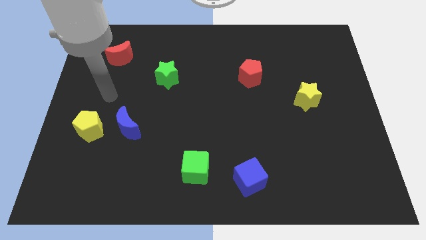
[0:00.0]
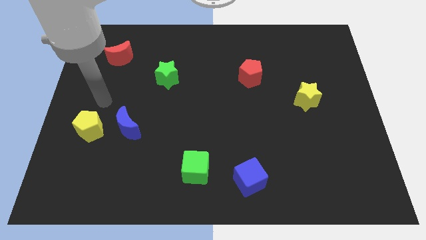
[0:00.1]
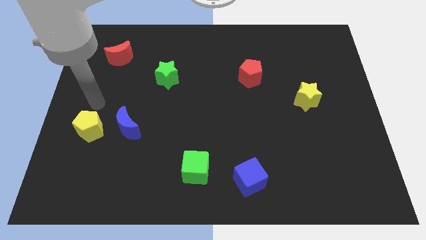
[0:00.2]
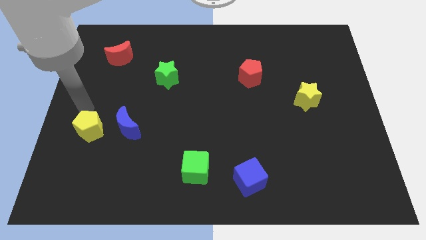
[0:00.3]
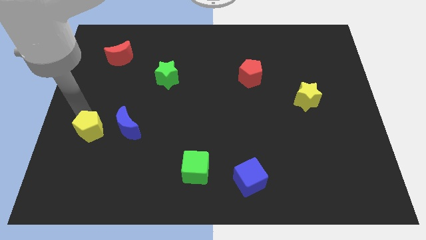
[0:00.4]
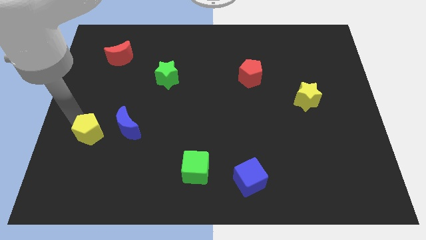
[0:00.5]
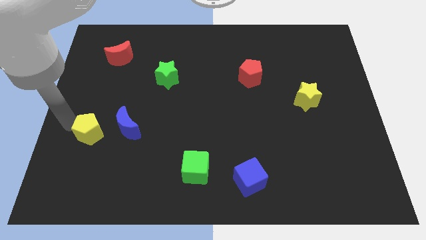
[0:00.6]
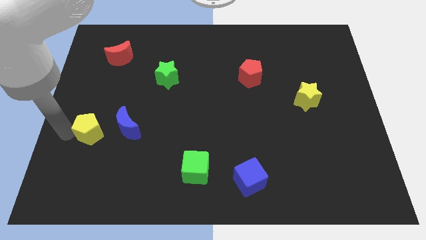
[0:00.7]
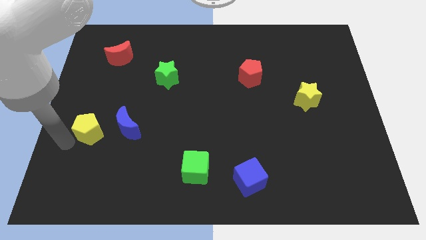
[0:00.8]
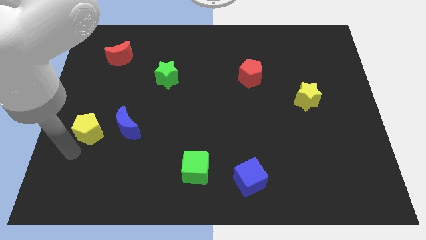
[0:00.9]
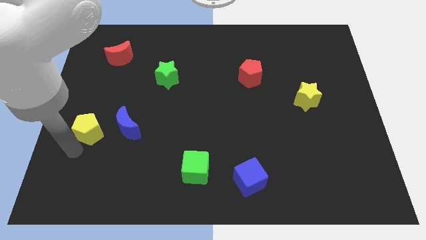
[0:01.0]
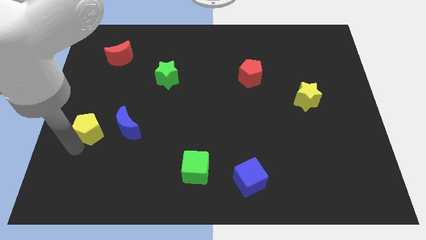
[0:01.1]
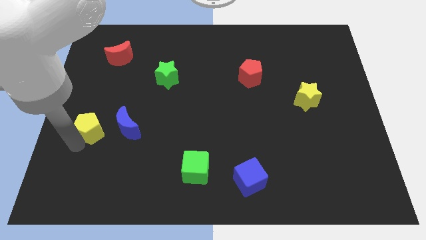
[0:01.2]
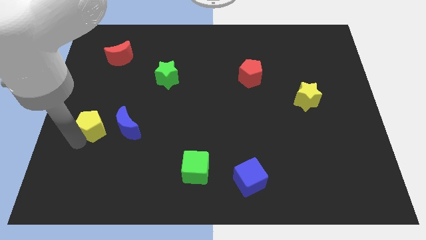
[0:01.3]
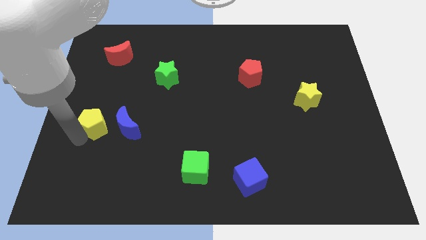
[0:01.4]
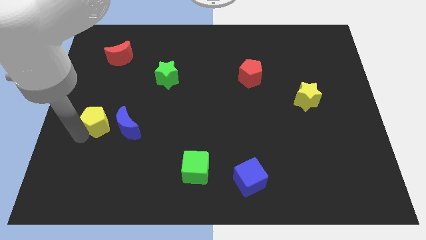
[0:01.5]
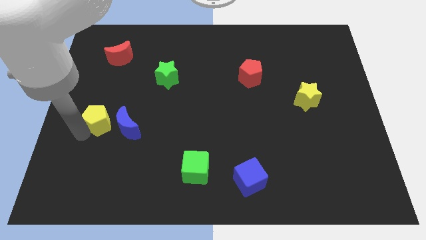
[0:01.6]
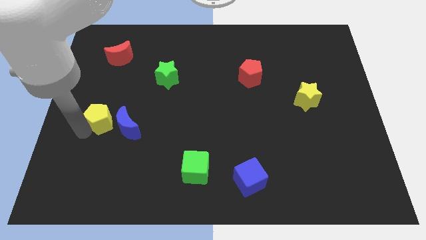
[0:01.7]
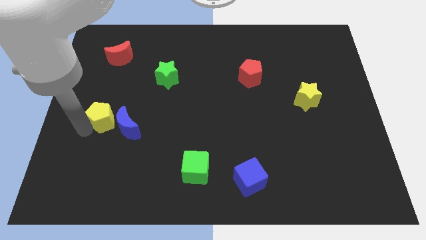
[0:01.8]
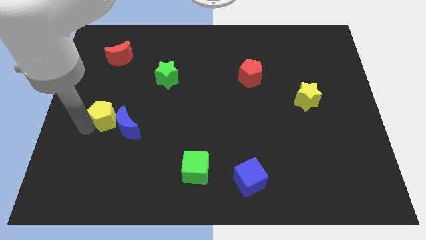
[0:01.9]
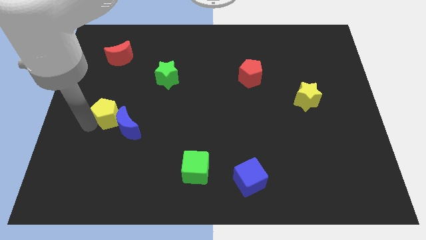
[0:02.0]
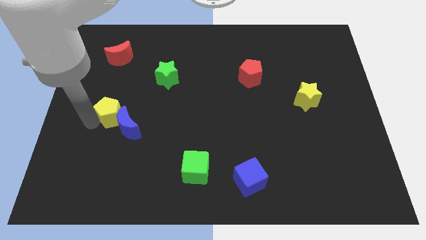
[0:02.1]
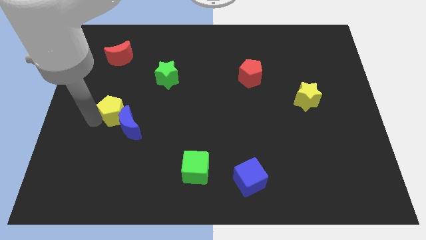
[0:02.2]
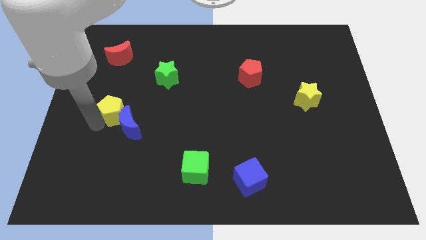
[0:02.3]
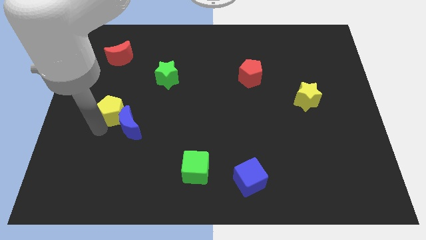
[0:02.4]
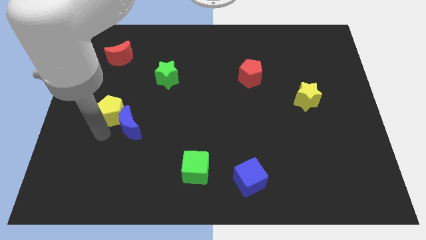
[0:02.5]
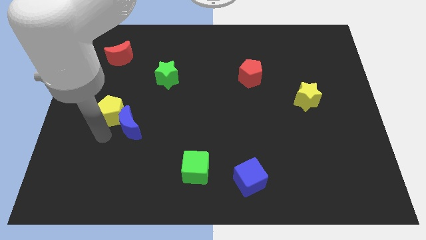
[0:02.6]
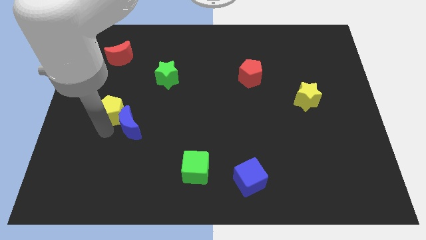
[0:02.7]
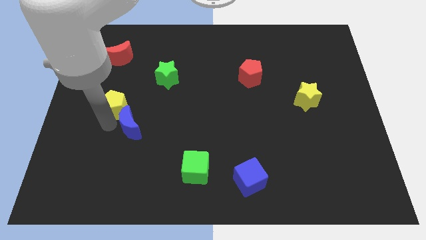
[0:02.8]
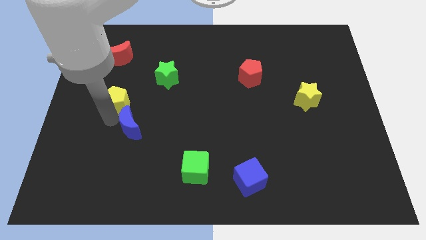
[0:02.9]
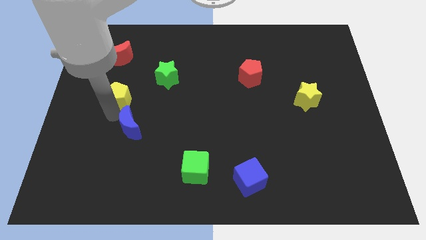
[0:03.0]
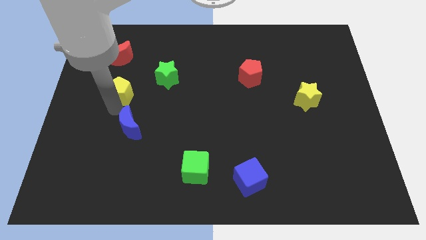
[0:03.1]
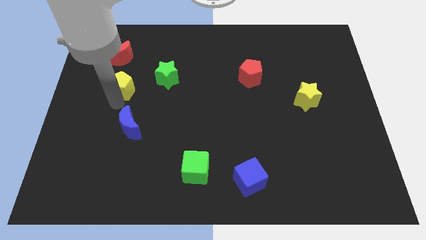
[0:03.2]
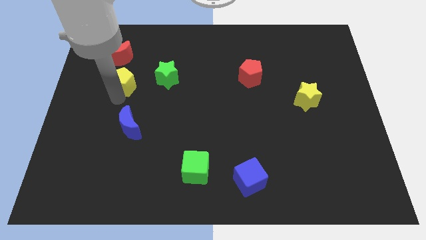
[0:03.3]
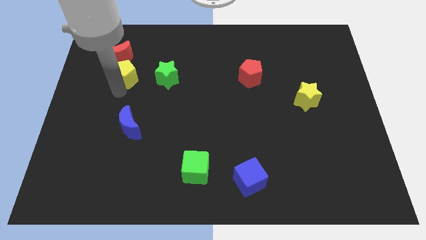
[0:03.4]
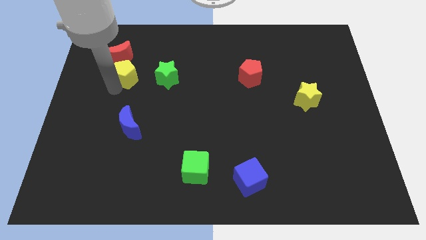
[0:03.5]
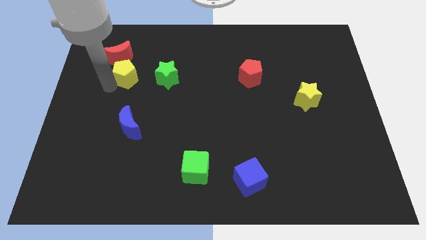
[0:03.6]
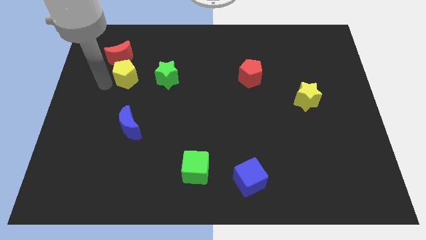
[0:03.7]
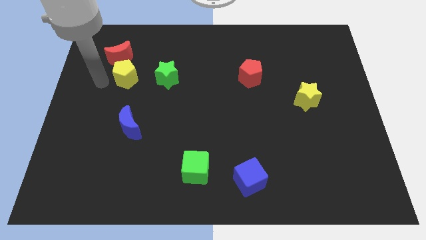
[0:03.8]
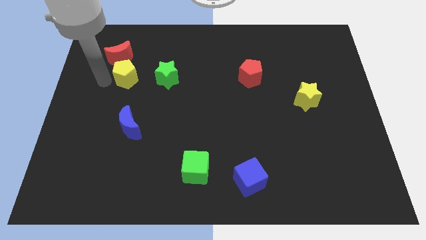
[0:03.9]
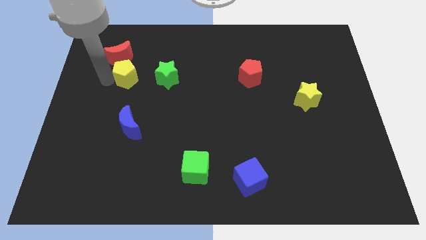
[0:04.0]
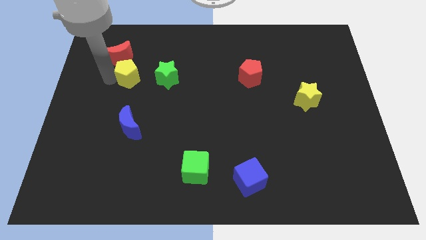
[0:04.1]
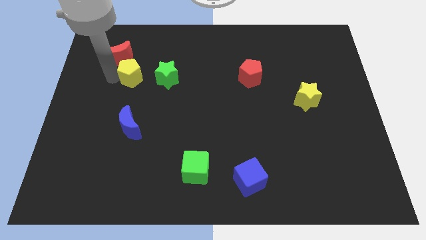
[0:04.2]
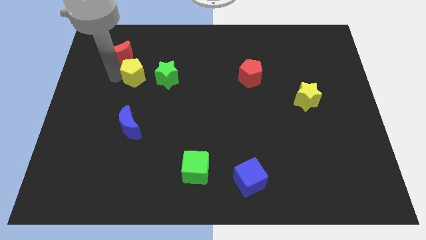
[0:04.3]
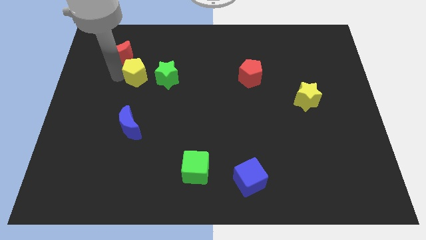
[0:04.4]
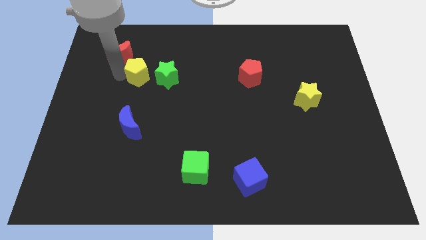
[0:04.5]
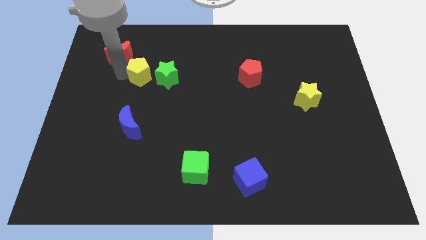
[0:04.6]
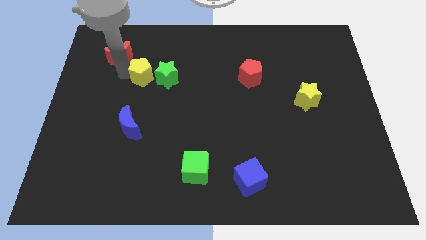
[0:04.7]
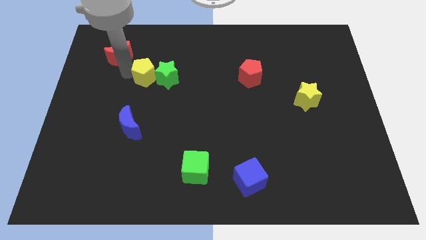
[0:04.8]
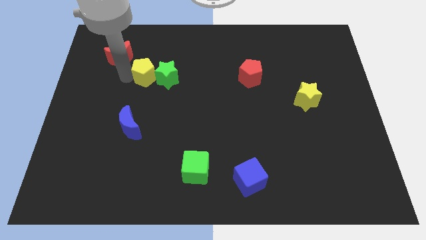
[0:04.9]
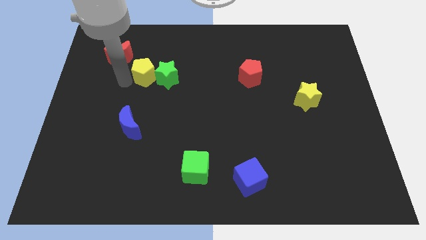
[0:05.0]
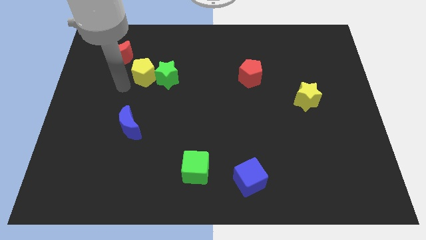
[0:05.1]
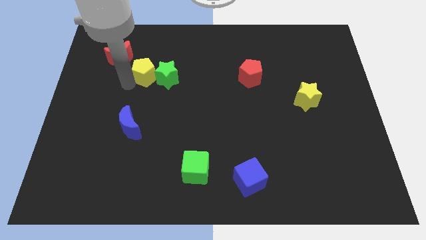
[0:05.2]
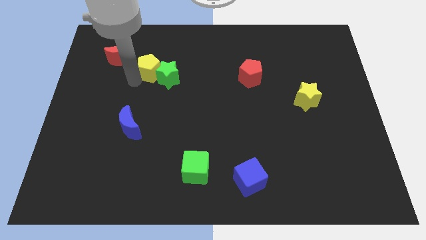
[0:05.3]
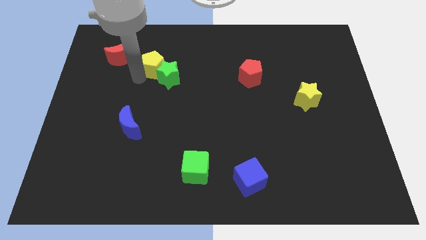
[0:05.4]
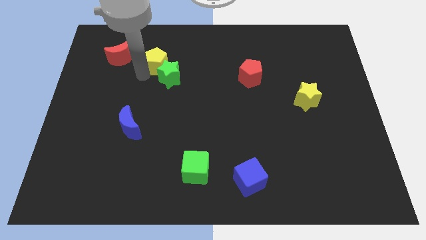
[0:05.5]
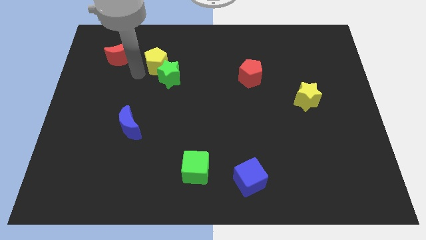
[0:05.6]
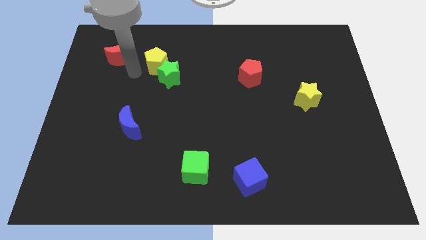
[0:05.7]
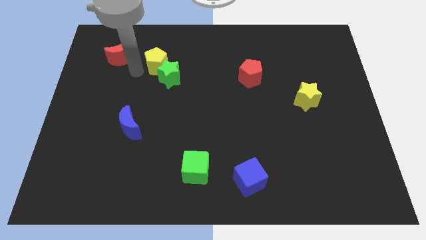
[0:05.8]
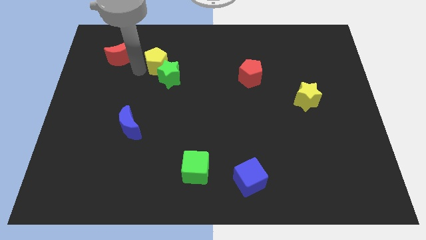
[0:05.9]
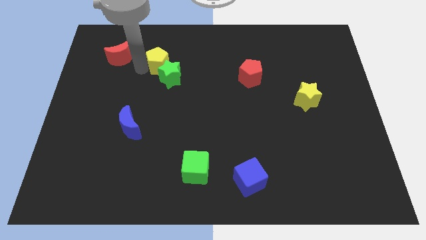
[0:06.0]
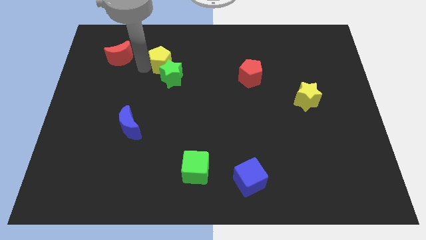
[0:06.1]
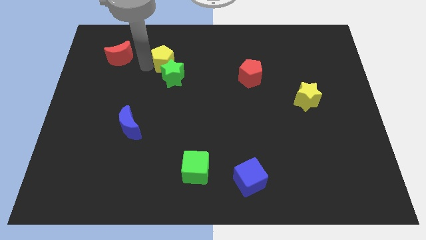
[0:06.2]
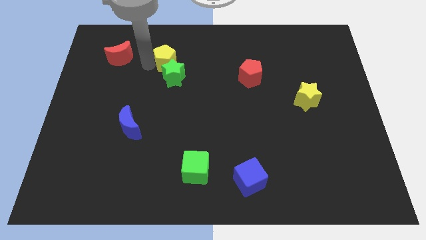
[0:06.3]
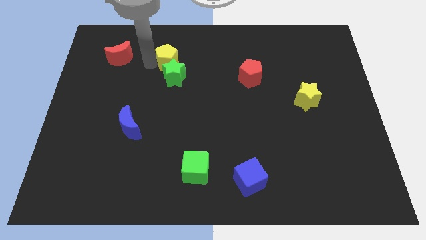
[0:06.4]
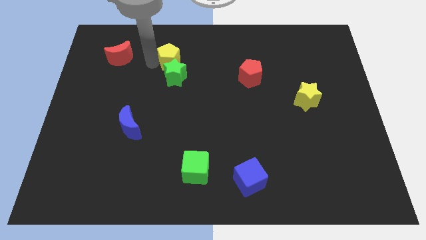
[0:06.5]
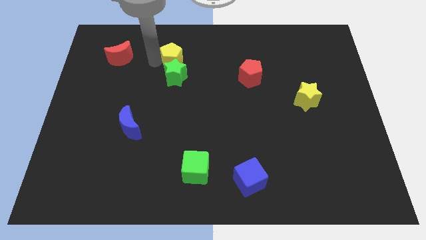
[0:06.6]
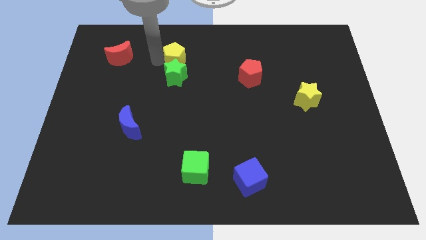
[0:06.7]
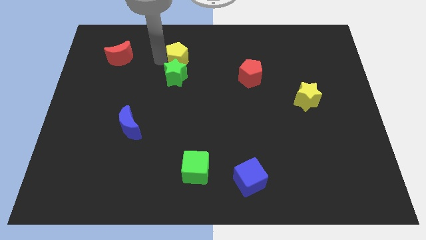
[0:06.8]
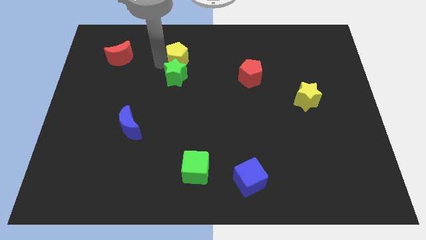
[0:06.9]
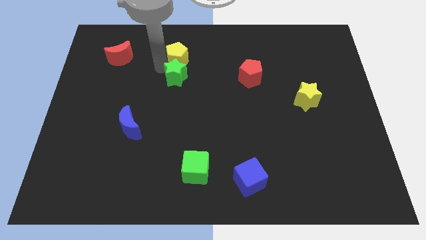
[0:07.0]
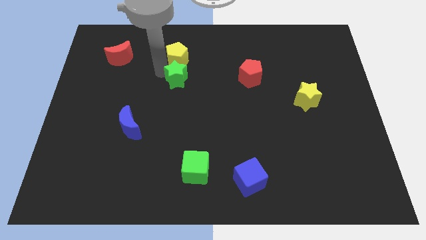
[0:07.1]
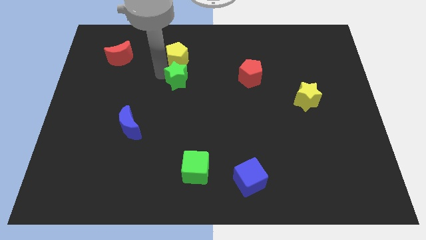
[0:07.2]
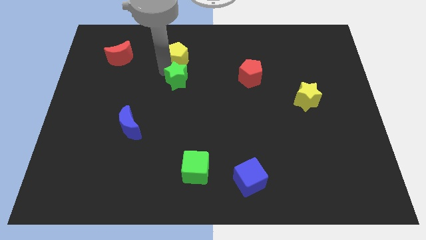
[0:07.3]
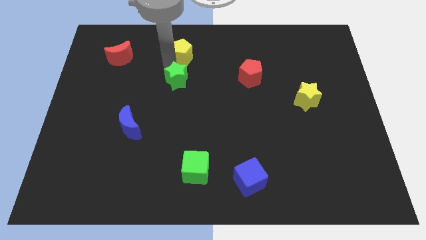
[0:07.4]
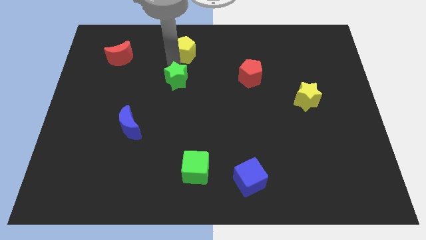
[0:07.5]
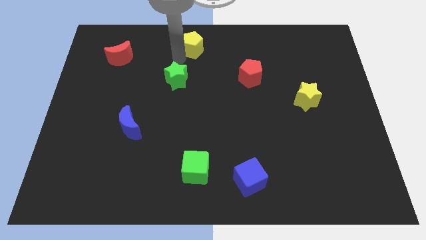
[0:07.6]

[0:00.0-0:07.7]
put the yellow pentagon to the towards your base

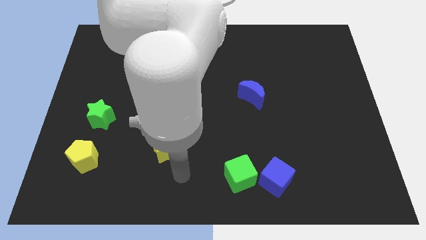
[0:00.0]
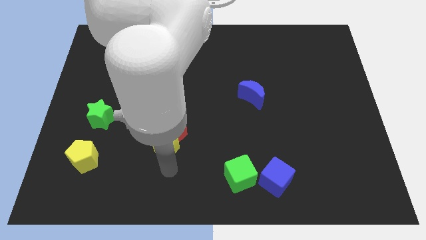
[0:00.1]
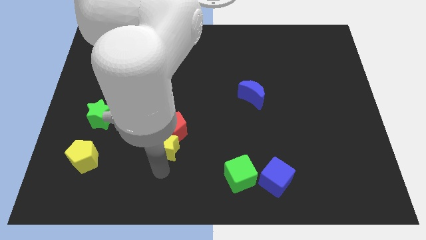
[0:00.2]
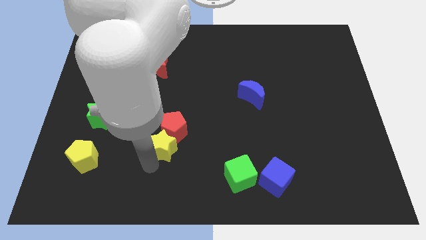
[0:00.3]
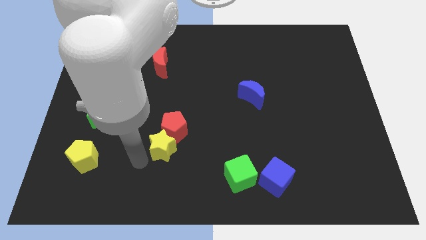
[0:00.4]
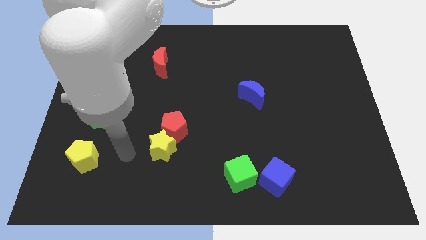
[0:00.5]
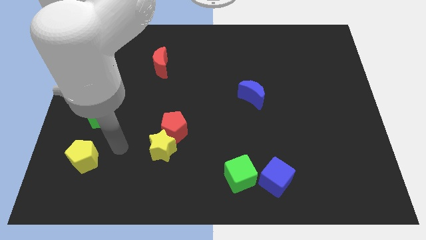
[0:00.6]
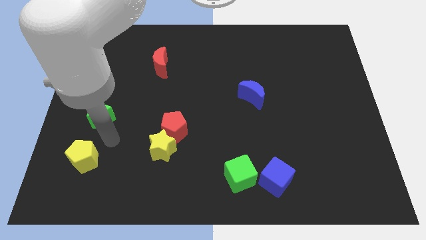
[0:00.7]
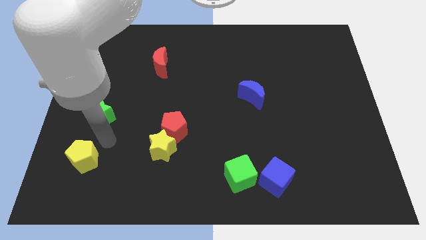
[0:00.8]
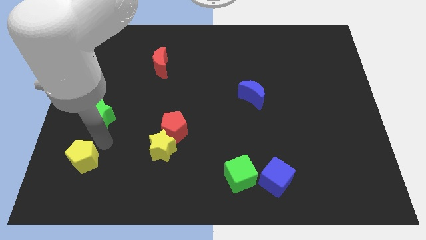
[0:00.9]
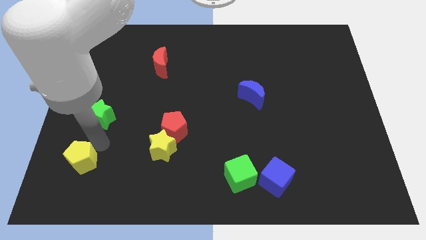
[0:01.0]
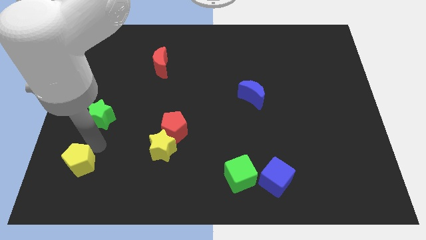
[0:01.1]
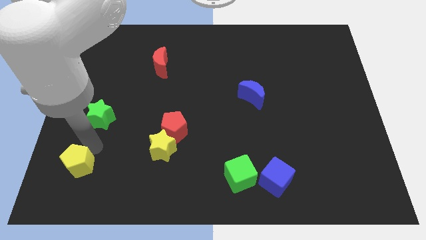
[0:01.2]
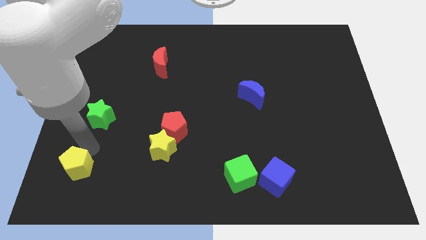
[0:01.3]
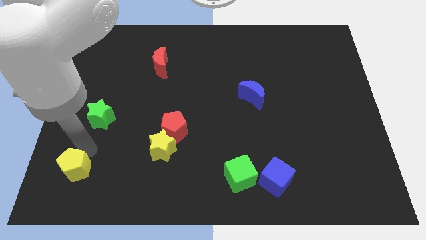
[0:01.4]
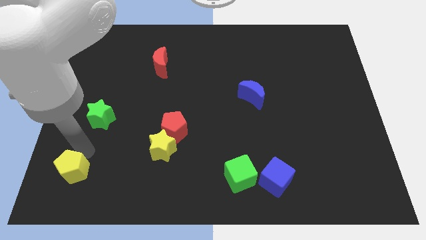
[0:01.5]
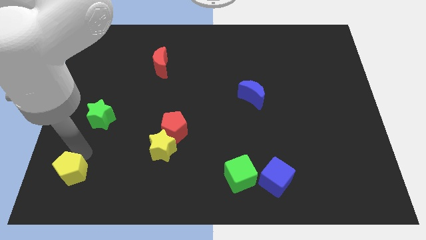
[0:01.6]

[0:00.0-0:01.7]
slide the yellow pentagon to the bottom left corner
